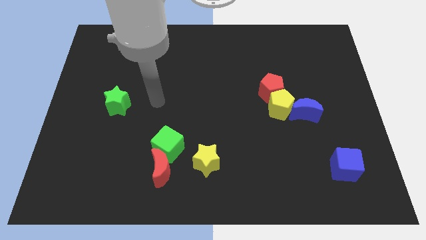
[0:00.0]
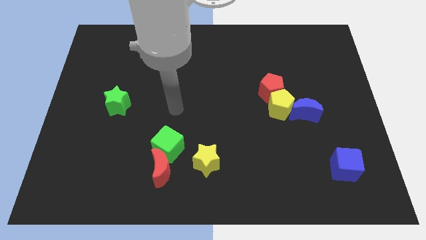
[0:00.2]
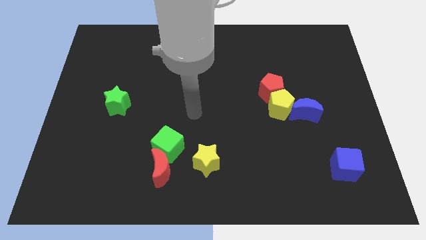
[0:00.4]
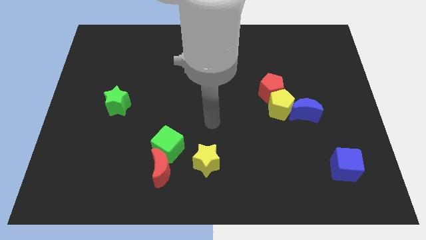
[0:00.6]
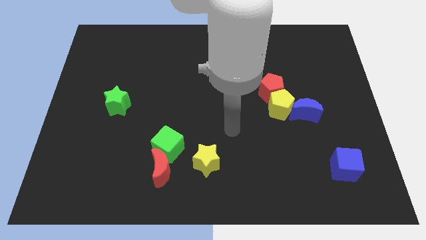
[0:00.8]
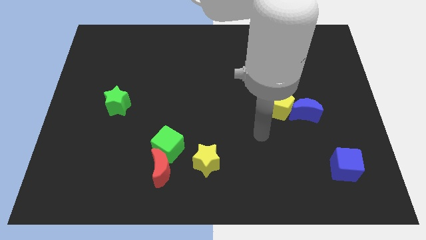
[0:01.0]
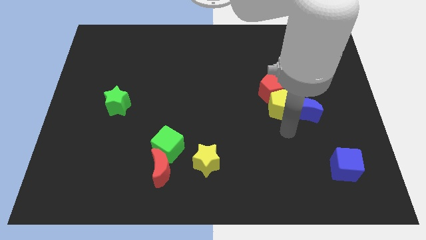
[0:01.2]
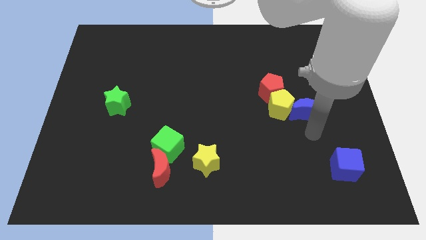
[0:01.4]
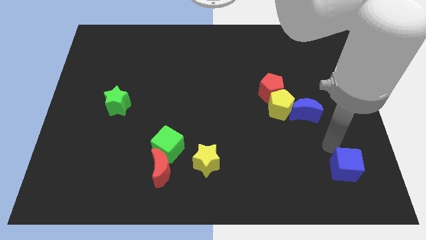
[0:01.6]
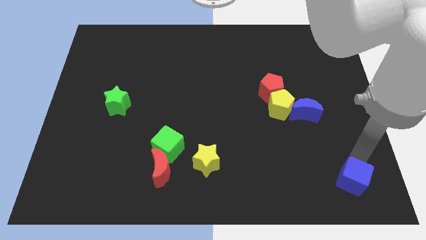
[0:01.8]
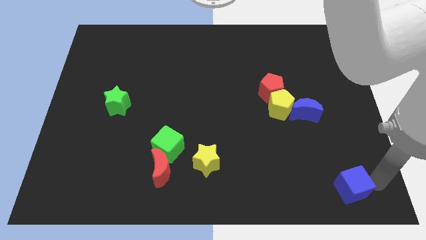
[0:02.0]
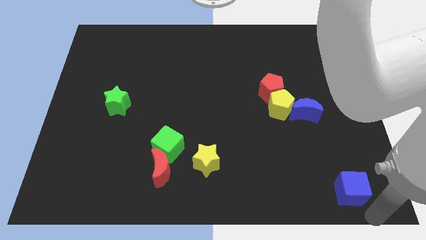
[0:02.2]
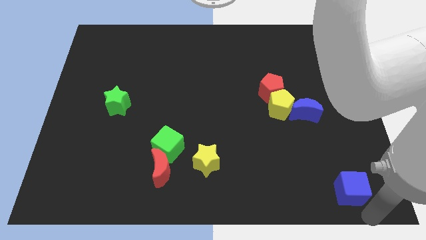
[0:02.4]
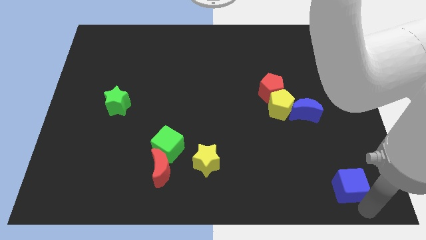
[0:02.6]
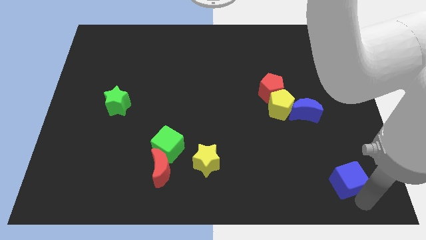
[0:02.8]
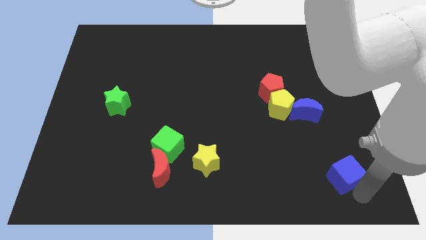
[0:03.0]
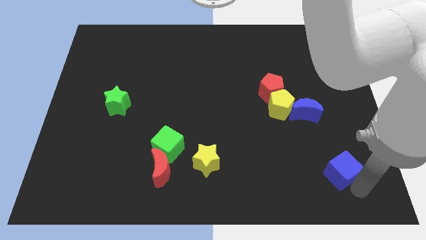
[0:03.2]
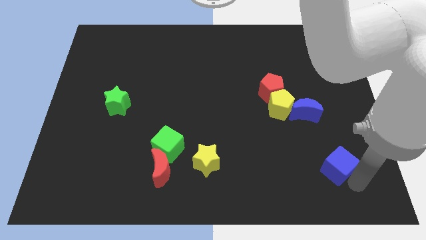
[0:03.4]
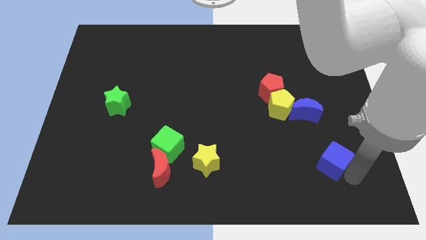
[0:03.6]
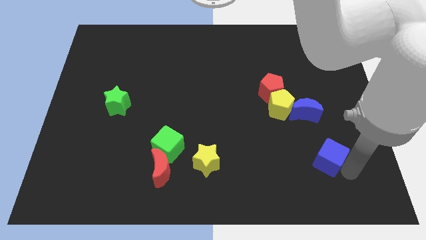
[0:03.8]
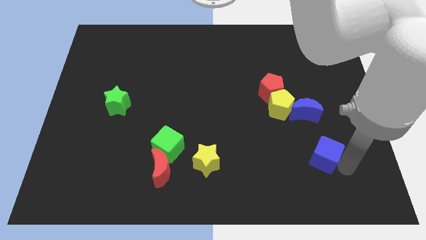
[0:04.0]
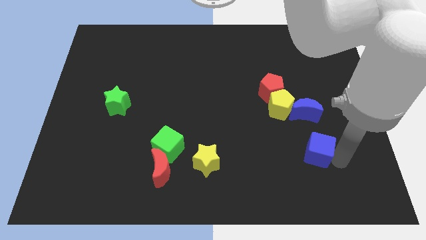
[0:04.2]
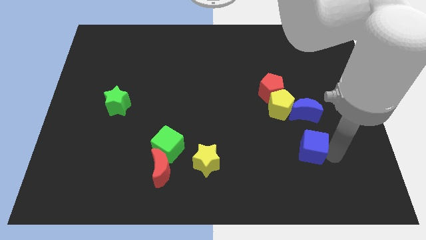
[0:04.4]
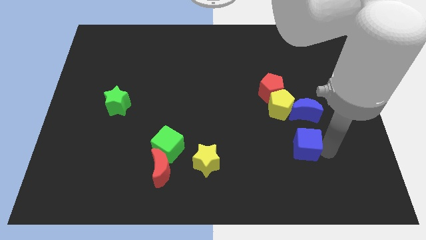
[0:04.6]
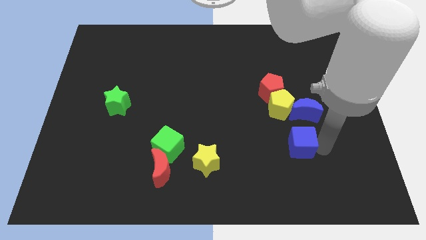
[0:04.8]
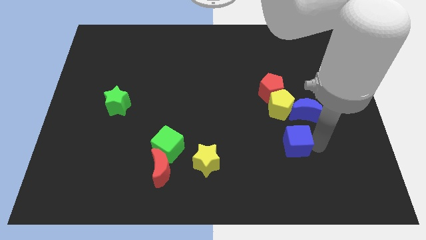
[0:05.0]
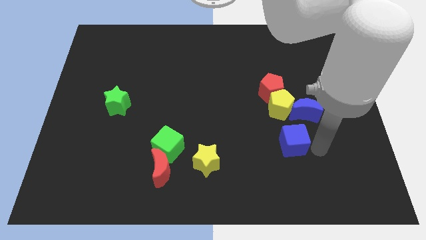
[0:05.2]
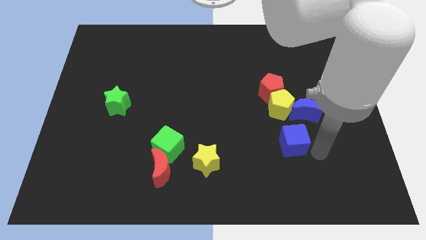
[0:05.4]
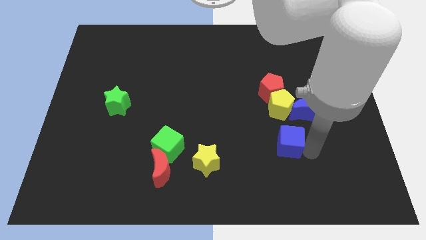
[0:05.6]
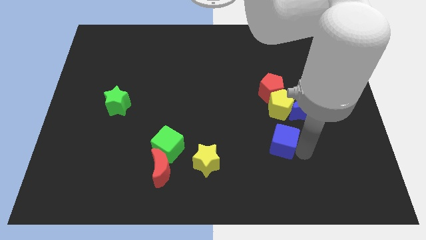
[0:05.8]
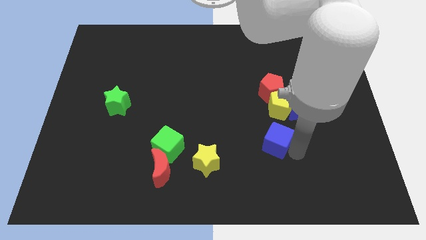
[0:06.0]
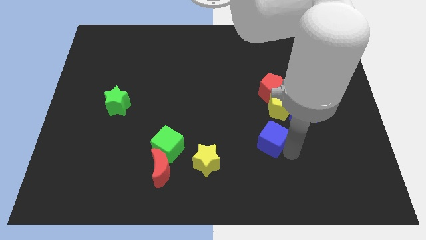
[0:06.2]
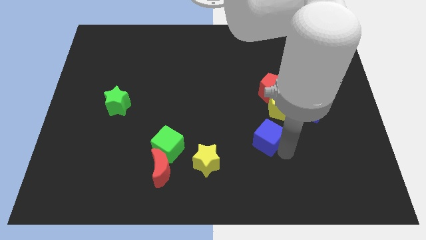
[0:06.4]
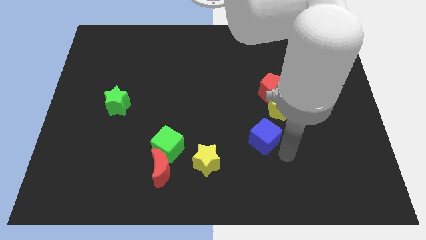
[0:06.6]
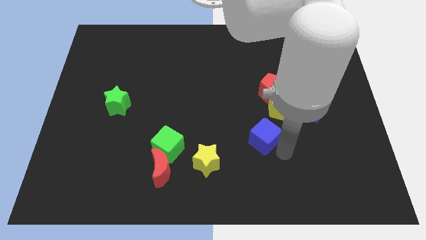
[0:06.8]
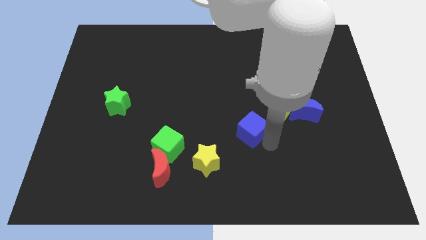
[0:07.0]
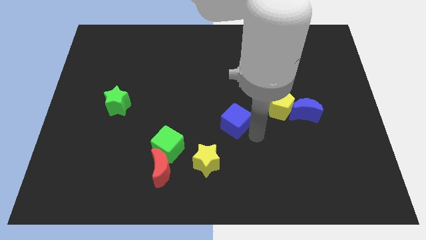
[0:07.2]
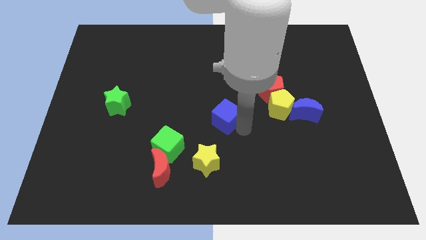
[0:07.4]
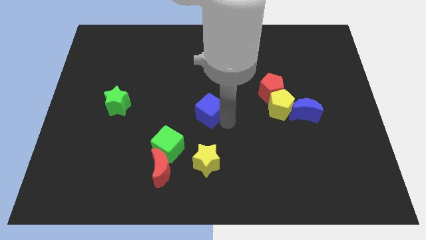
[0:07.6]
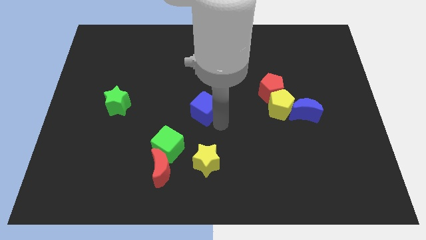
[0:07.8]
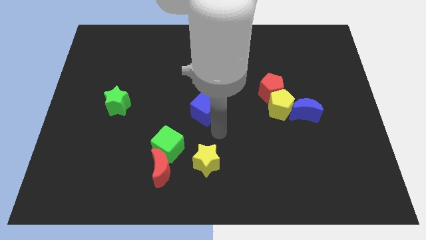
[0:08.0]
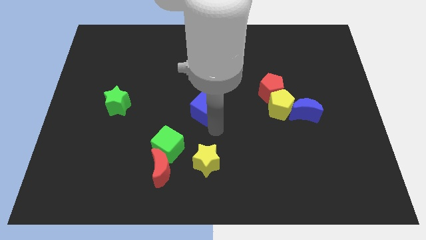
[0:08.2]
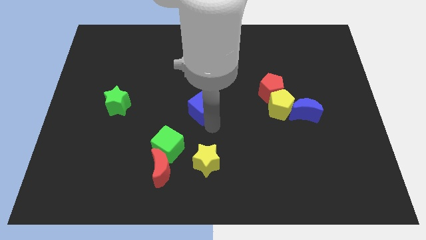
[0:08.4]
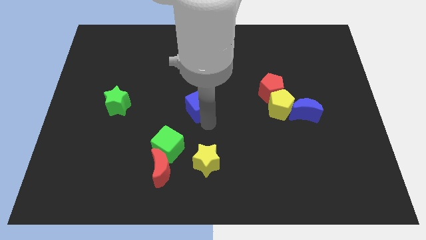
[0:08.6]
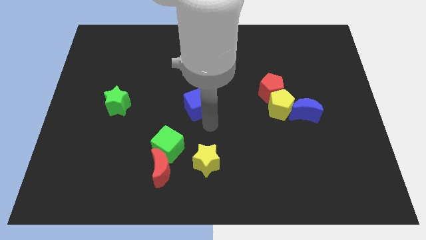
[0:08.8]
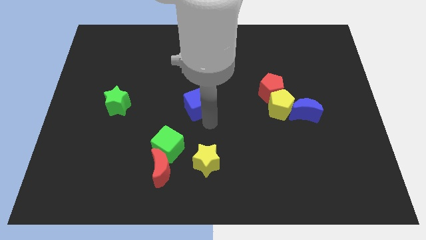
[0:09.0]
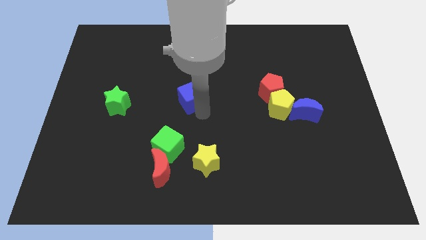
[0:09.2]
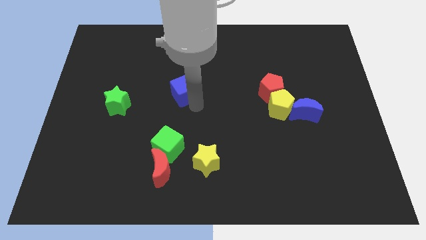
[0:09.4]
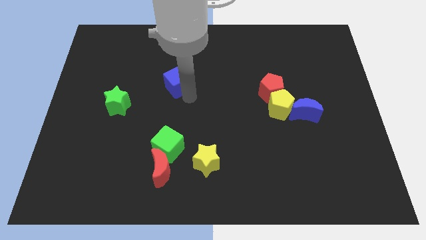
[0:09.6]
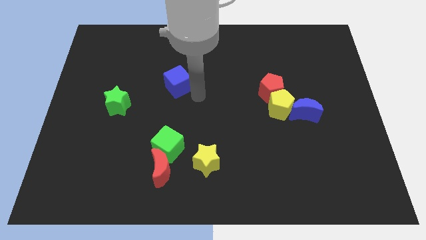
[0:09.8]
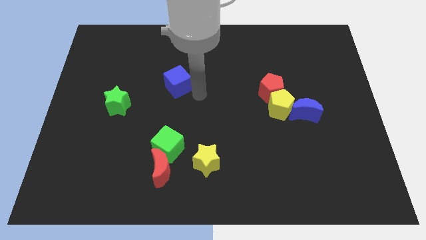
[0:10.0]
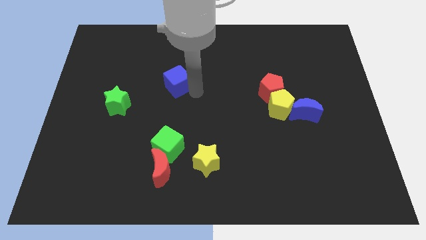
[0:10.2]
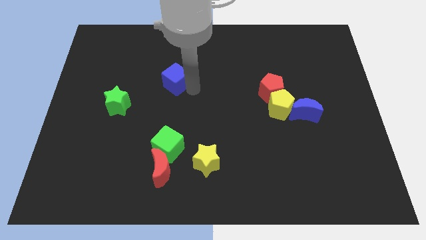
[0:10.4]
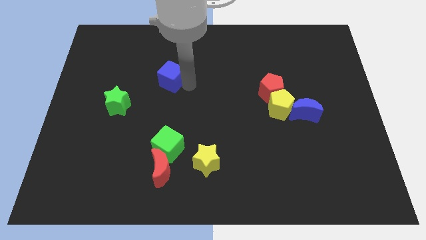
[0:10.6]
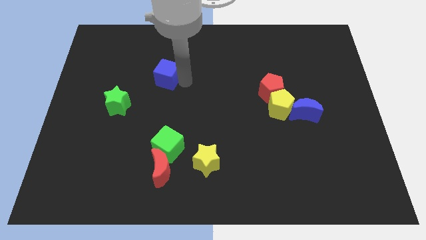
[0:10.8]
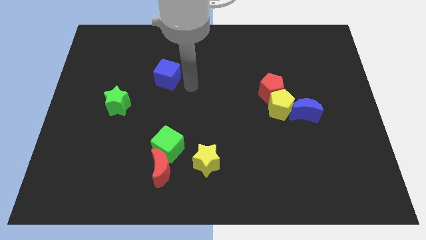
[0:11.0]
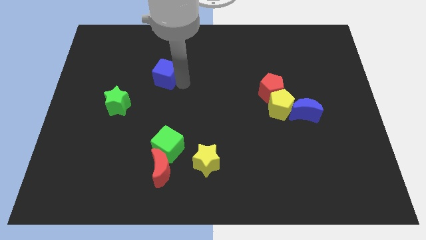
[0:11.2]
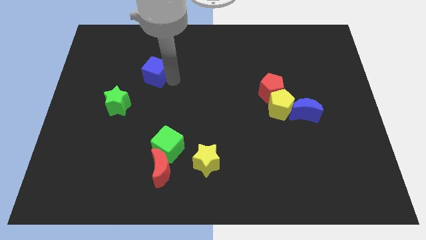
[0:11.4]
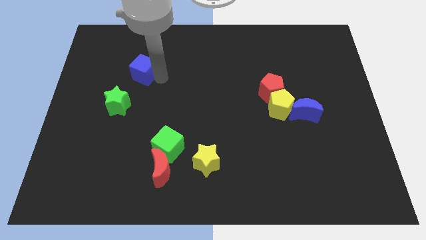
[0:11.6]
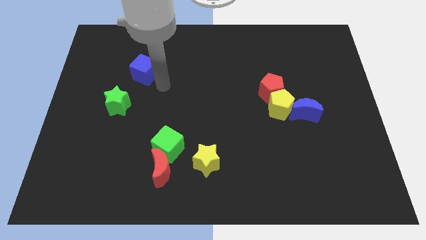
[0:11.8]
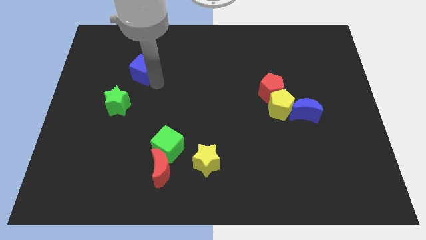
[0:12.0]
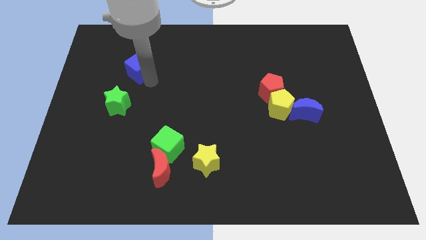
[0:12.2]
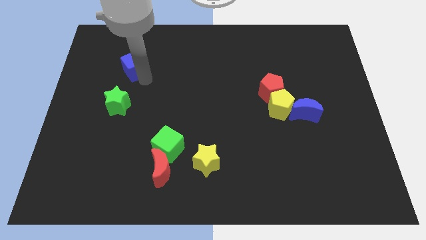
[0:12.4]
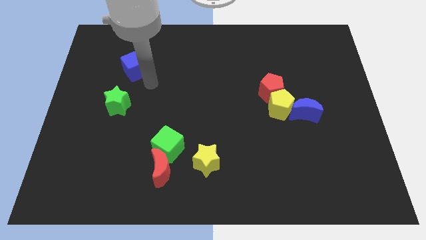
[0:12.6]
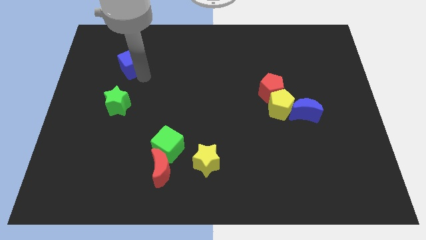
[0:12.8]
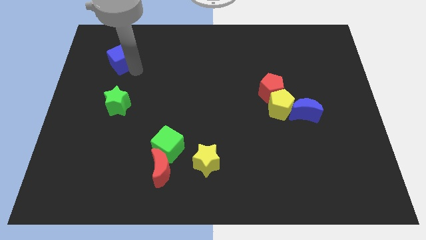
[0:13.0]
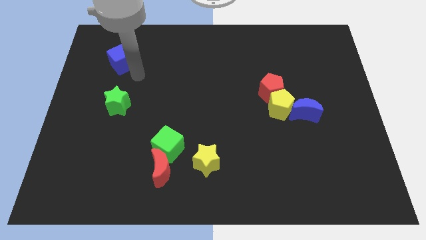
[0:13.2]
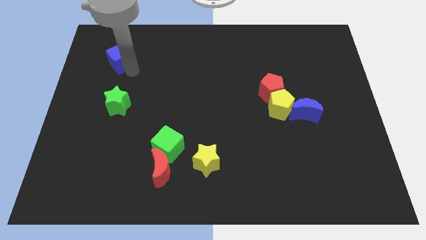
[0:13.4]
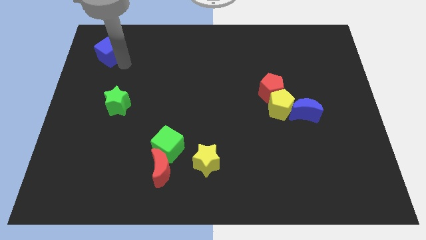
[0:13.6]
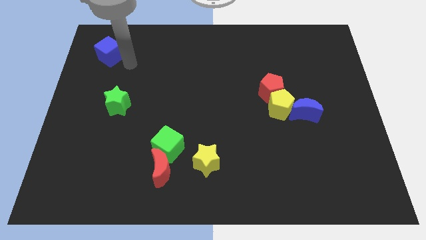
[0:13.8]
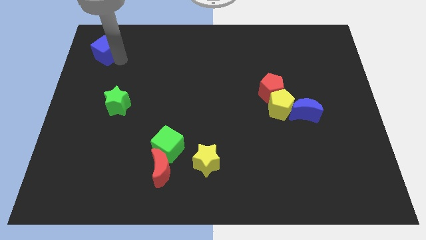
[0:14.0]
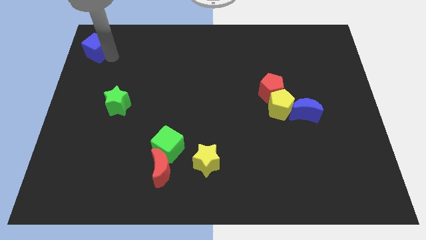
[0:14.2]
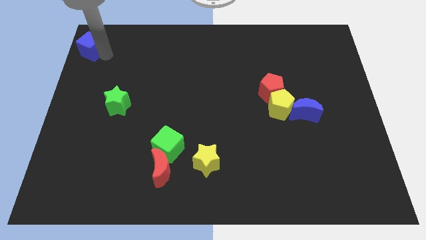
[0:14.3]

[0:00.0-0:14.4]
move the blue cube to the top left
